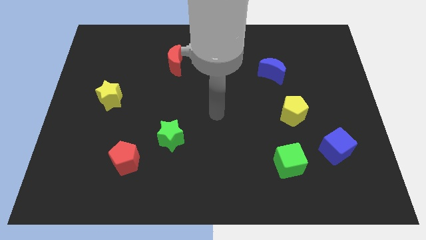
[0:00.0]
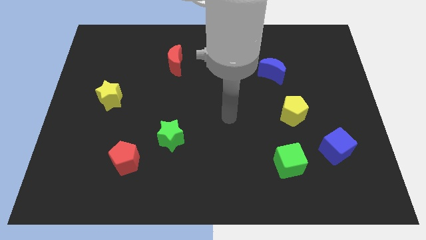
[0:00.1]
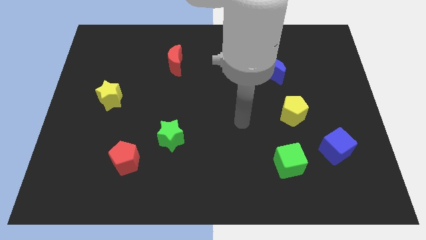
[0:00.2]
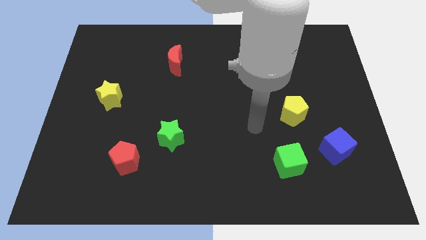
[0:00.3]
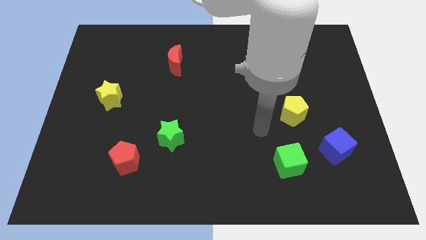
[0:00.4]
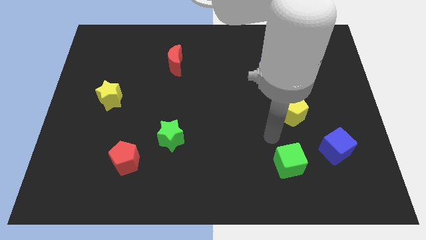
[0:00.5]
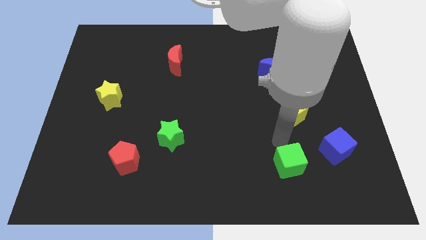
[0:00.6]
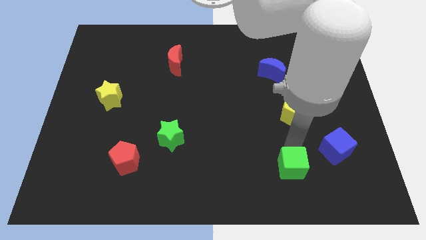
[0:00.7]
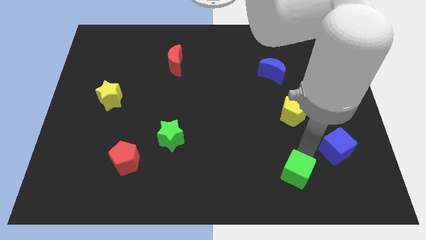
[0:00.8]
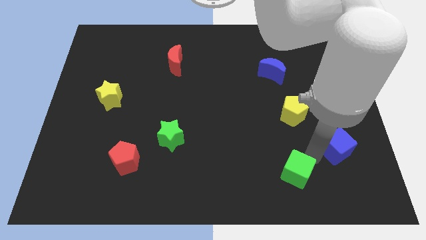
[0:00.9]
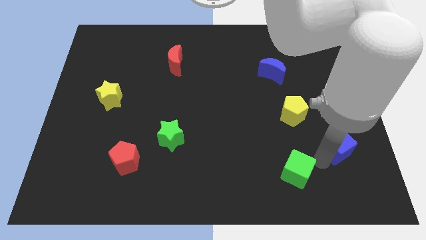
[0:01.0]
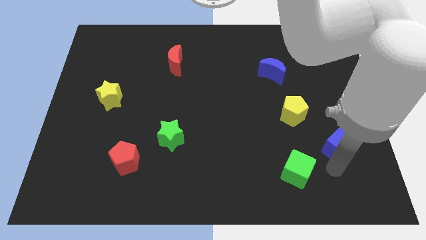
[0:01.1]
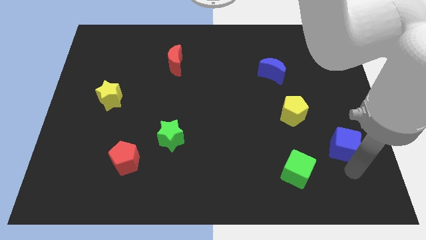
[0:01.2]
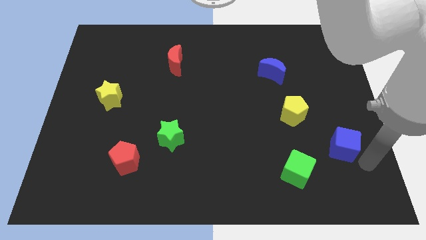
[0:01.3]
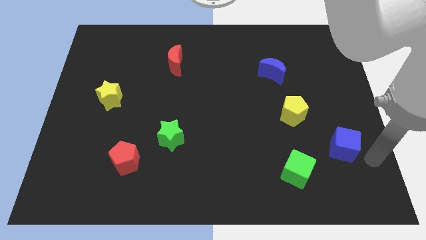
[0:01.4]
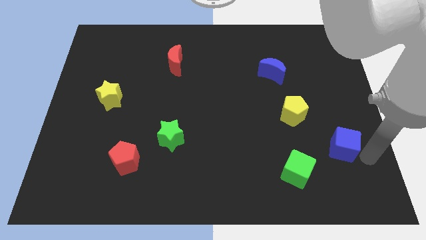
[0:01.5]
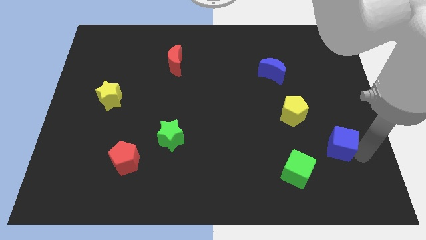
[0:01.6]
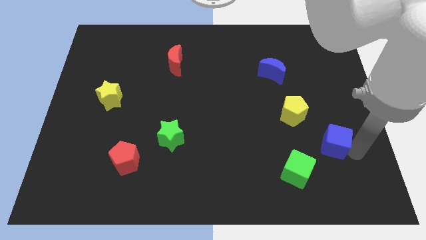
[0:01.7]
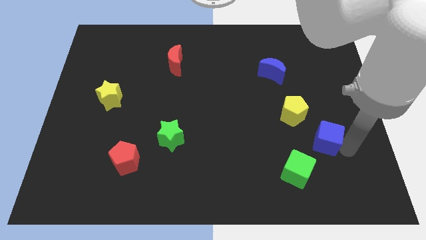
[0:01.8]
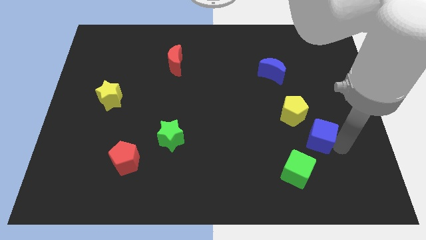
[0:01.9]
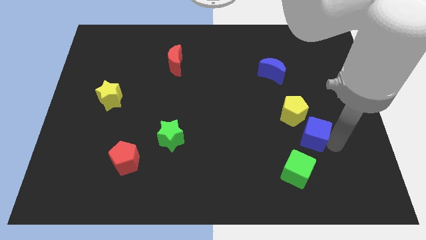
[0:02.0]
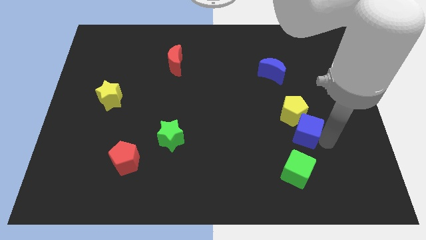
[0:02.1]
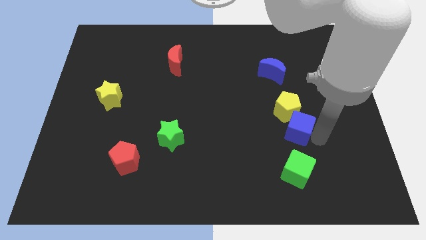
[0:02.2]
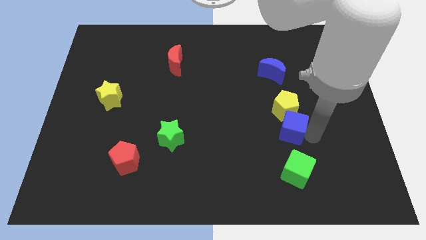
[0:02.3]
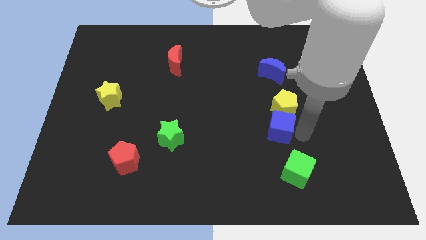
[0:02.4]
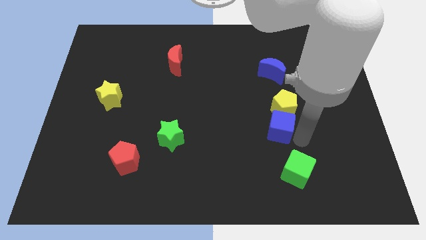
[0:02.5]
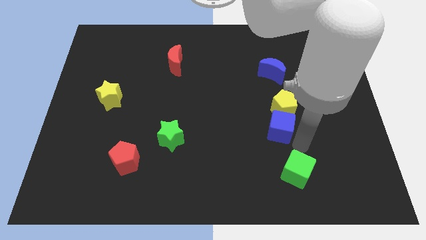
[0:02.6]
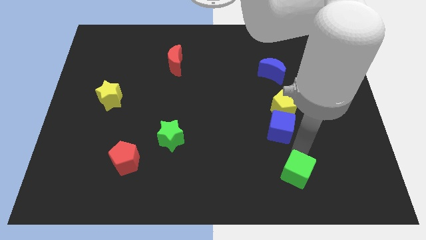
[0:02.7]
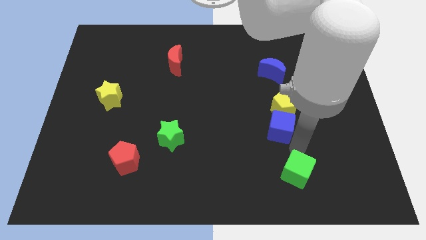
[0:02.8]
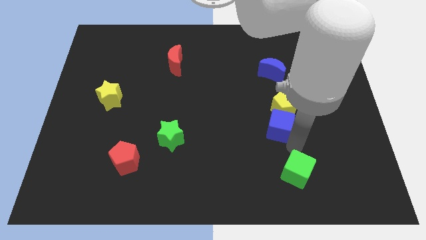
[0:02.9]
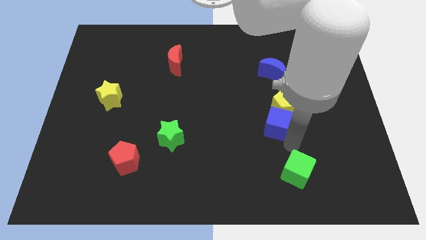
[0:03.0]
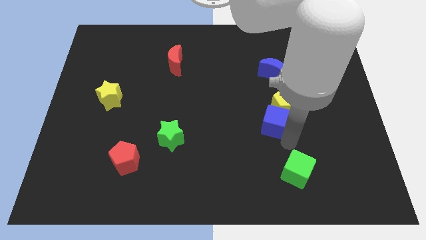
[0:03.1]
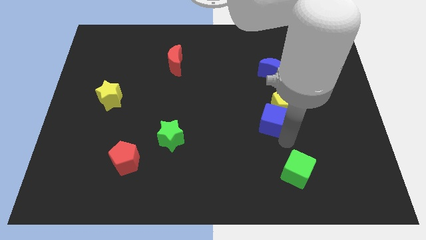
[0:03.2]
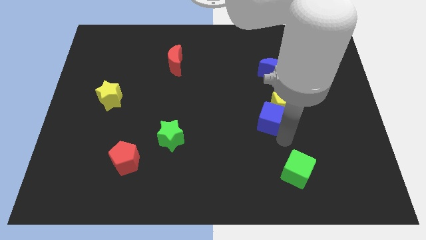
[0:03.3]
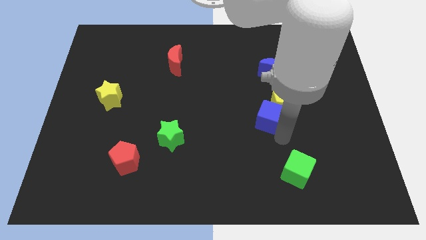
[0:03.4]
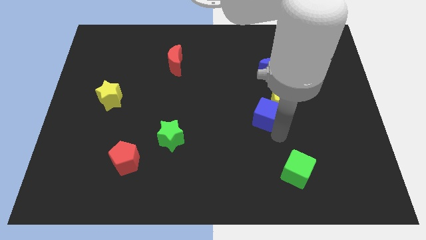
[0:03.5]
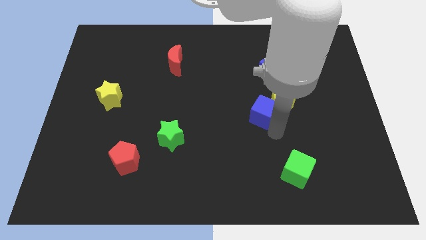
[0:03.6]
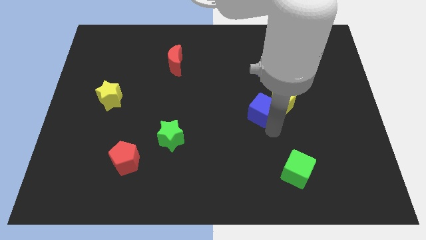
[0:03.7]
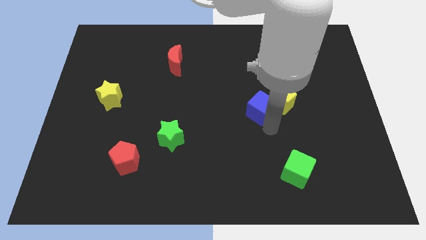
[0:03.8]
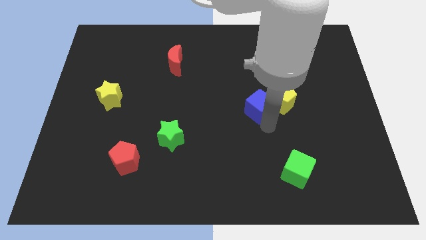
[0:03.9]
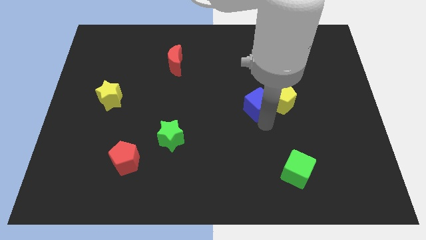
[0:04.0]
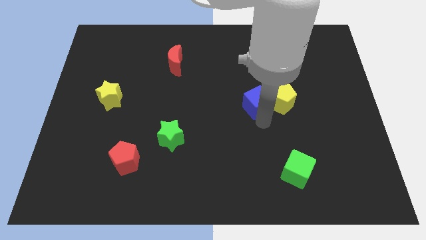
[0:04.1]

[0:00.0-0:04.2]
slide the blue cube up and left

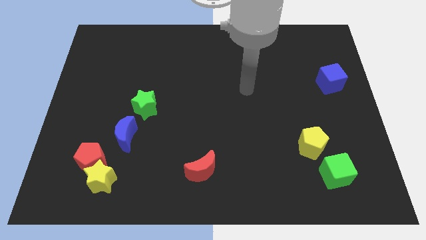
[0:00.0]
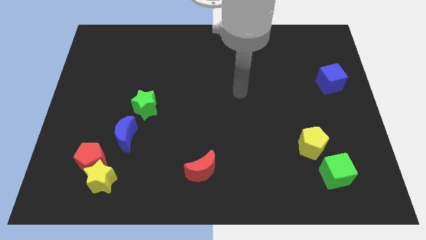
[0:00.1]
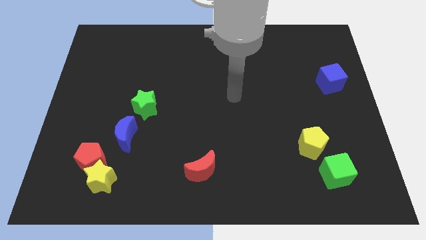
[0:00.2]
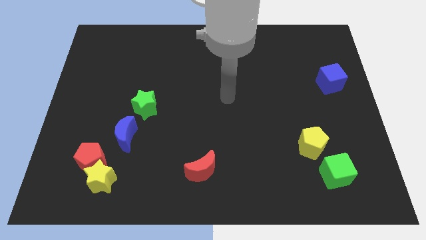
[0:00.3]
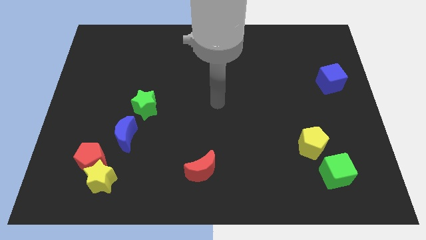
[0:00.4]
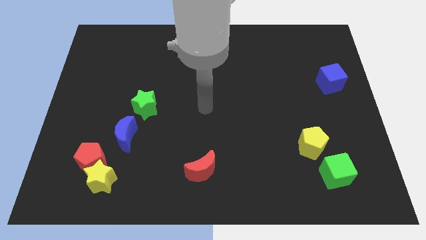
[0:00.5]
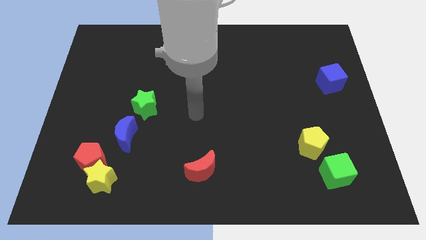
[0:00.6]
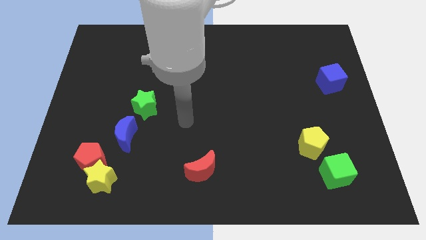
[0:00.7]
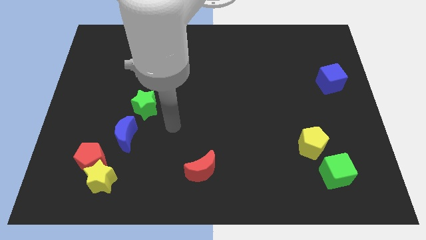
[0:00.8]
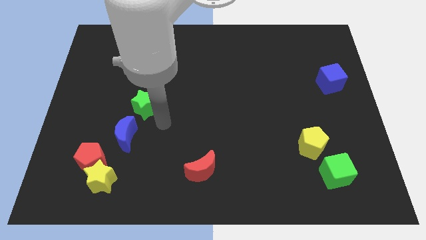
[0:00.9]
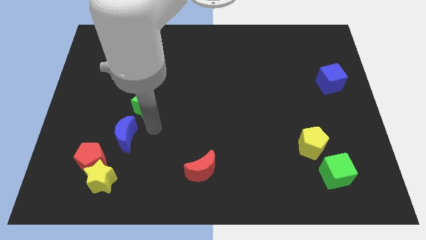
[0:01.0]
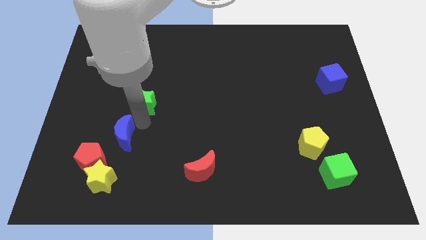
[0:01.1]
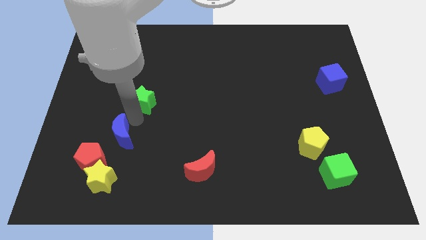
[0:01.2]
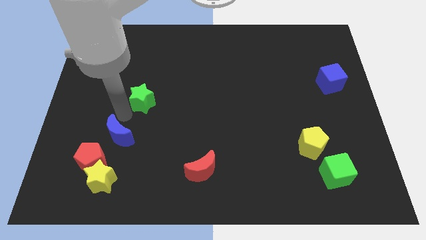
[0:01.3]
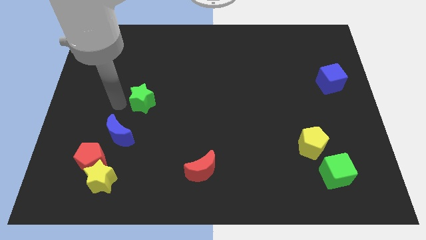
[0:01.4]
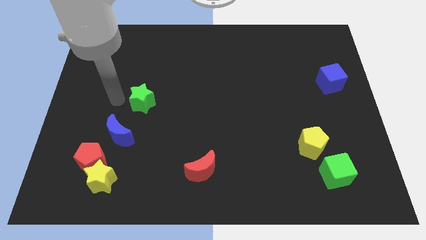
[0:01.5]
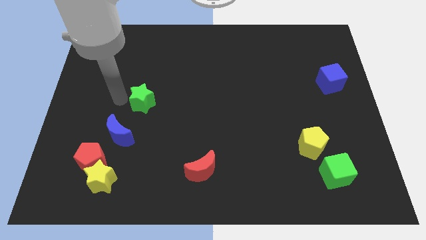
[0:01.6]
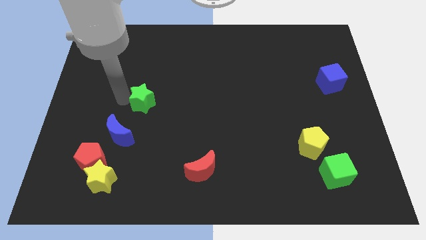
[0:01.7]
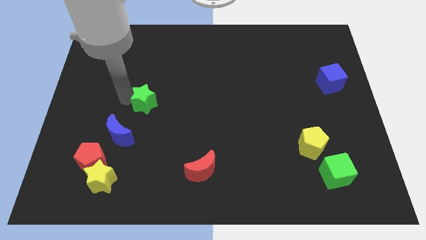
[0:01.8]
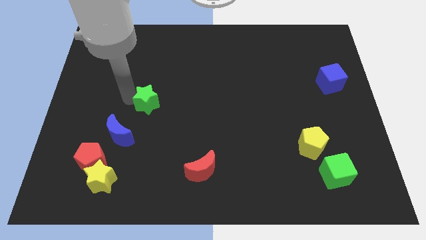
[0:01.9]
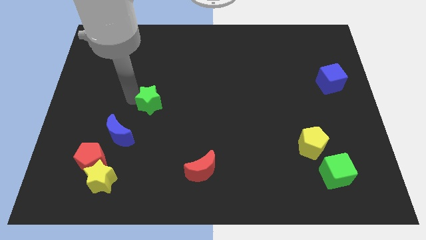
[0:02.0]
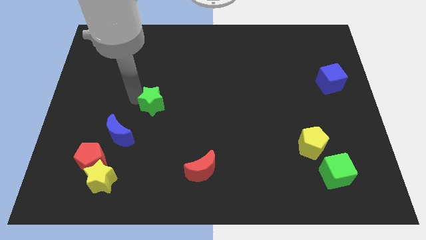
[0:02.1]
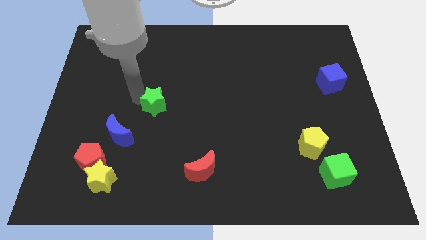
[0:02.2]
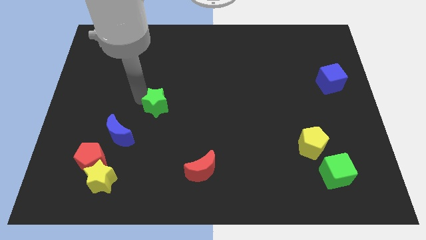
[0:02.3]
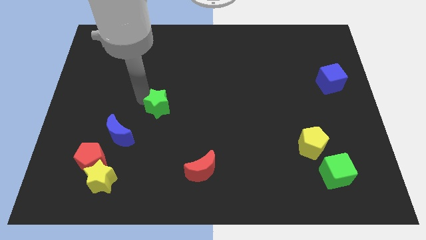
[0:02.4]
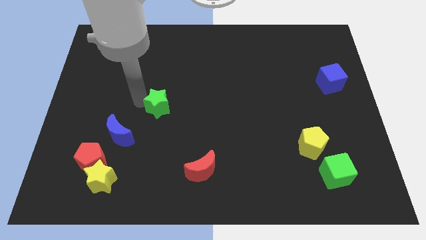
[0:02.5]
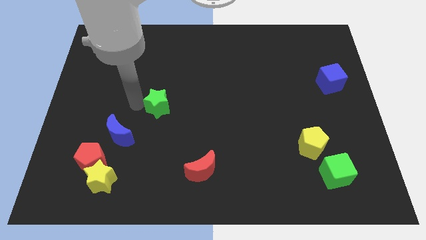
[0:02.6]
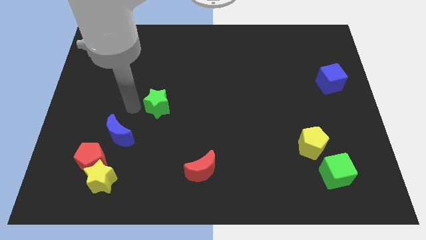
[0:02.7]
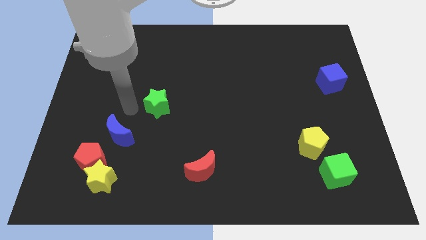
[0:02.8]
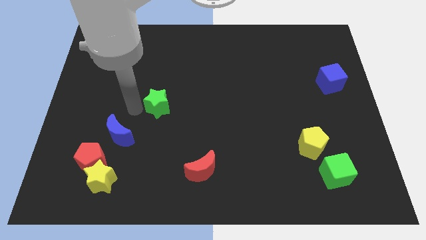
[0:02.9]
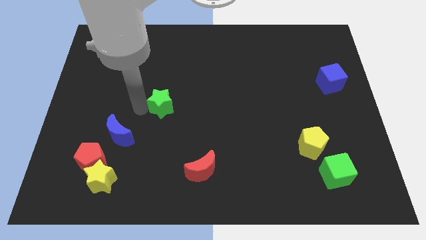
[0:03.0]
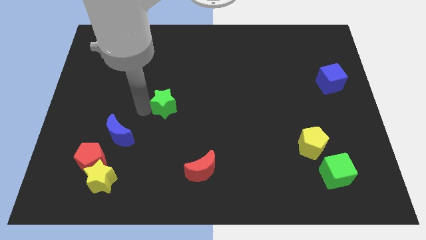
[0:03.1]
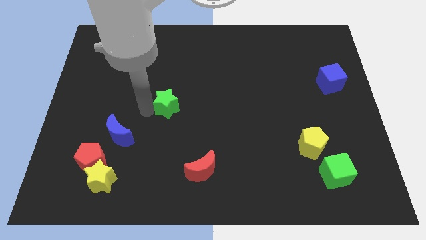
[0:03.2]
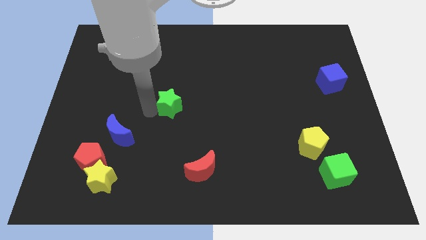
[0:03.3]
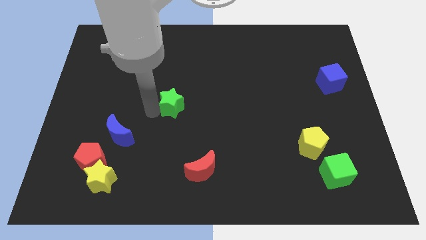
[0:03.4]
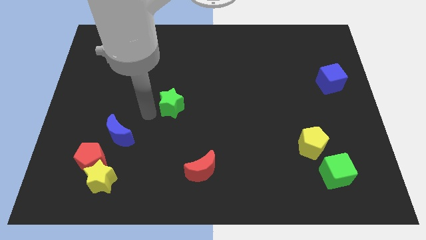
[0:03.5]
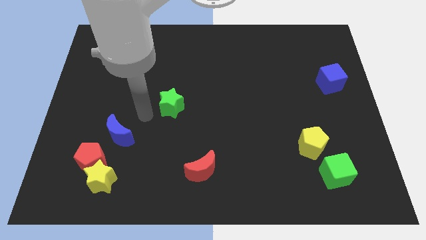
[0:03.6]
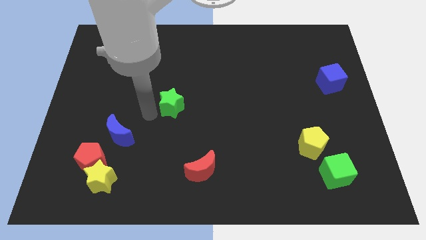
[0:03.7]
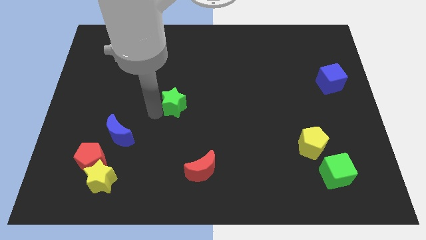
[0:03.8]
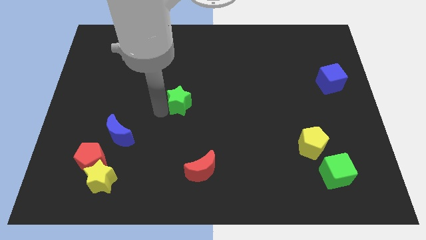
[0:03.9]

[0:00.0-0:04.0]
slide the green star right a little bit
